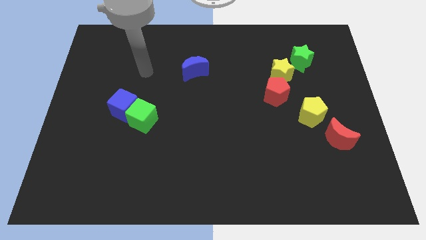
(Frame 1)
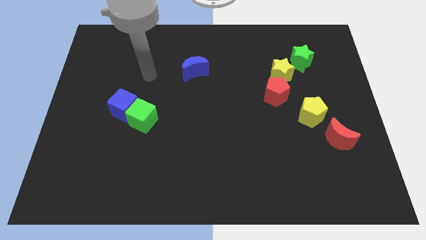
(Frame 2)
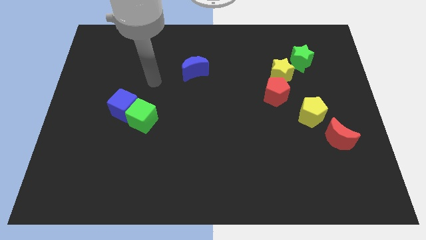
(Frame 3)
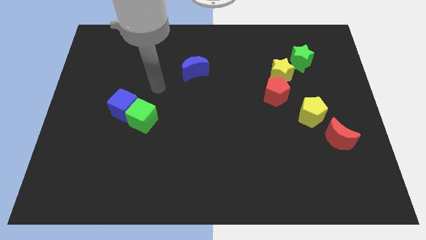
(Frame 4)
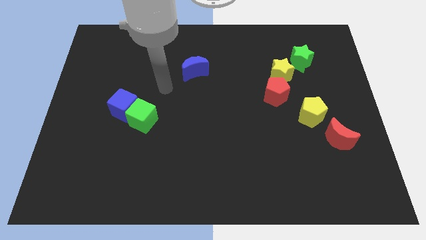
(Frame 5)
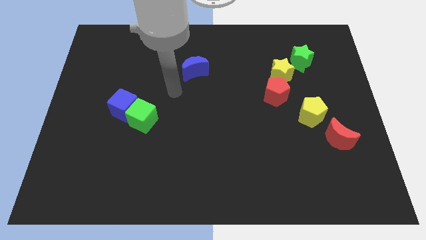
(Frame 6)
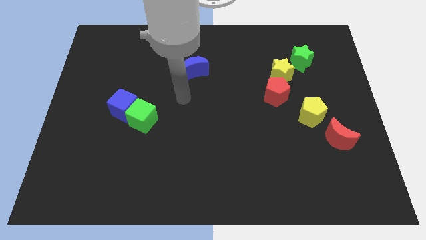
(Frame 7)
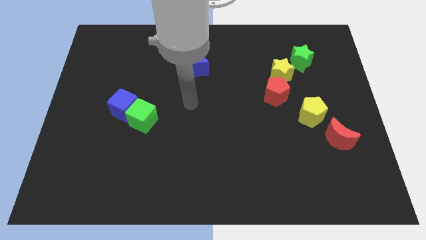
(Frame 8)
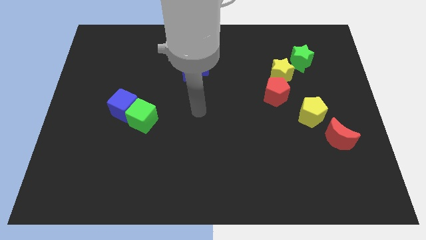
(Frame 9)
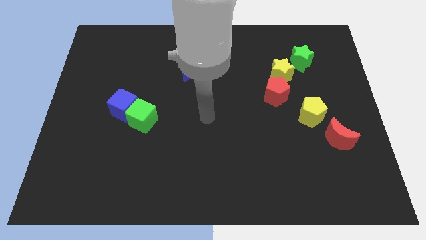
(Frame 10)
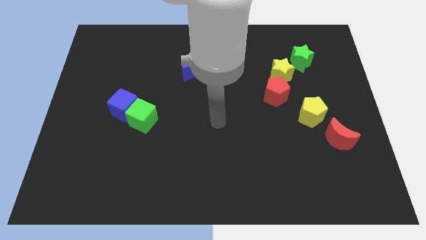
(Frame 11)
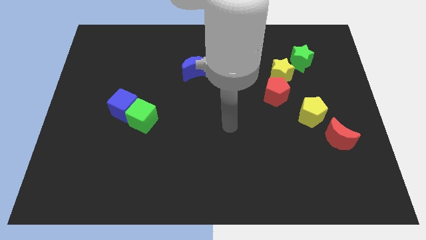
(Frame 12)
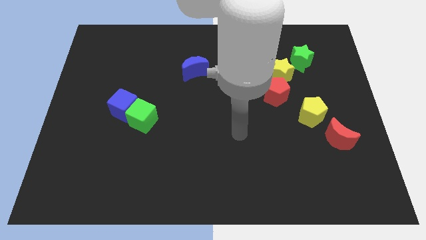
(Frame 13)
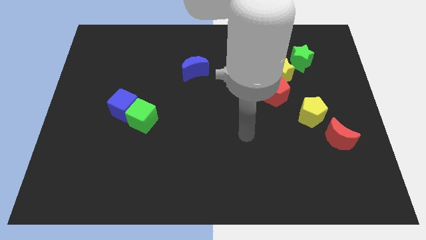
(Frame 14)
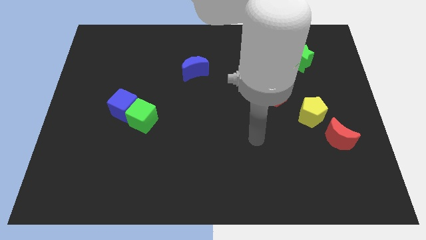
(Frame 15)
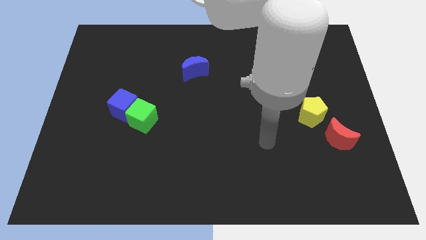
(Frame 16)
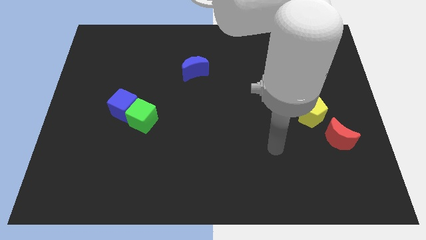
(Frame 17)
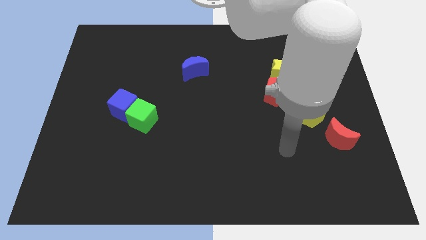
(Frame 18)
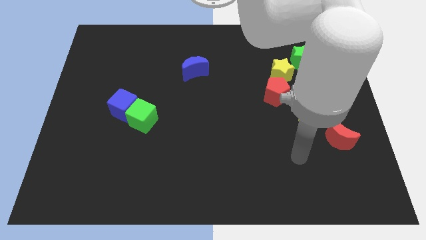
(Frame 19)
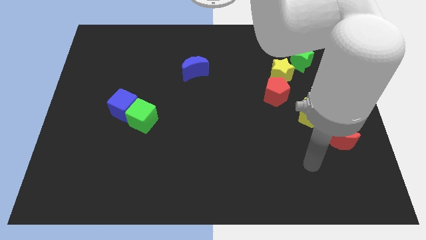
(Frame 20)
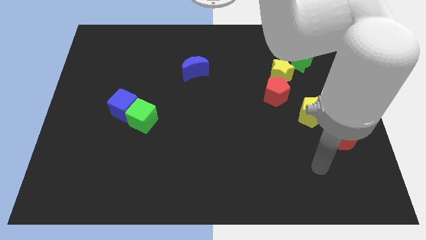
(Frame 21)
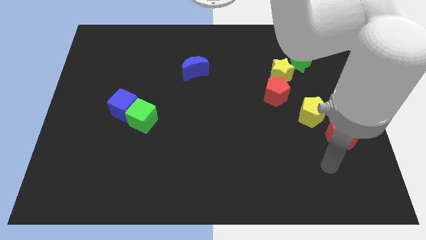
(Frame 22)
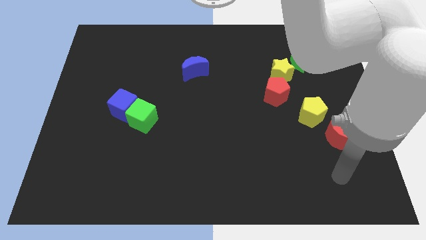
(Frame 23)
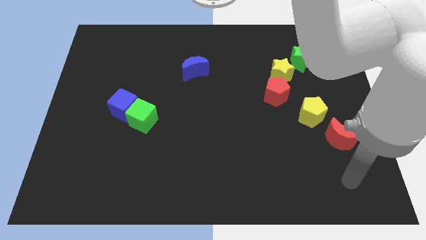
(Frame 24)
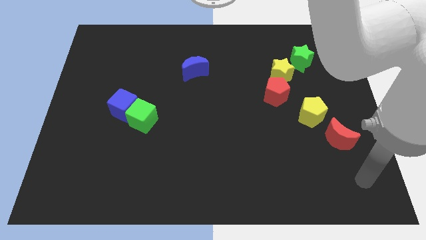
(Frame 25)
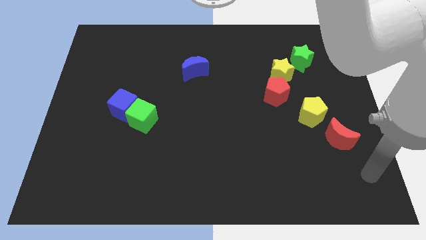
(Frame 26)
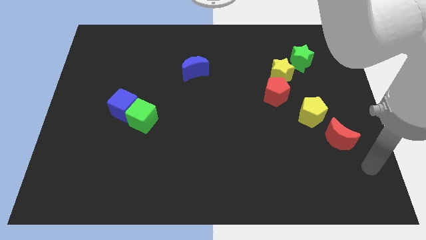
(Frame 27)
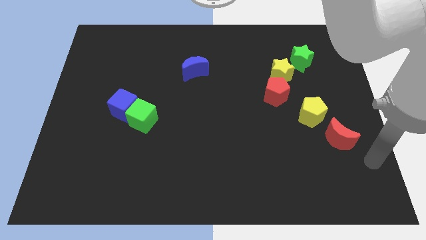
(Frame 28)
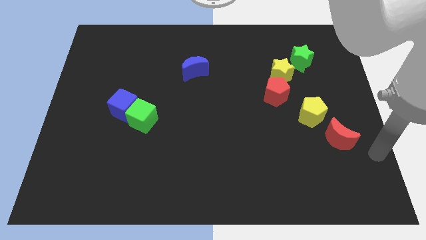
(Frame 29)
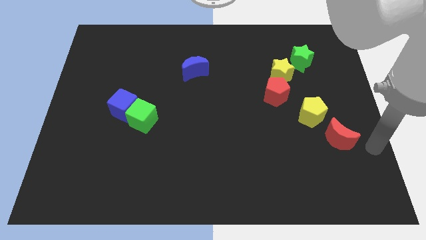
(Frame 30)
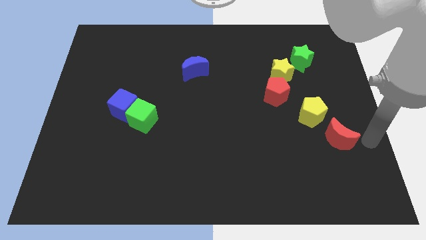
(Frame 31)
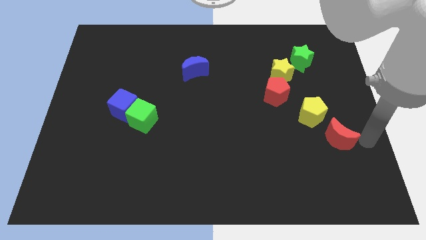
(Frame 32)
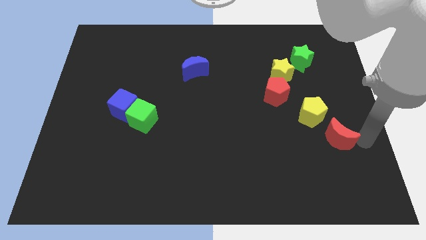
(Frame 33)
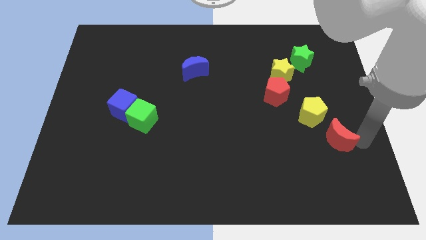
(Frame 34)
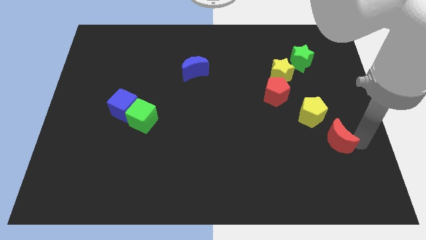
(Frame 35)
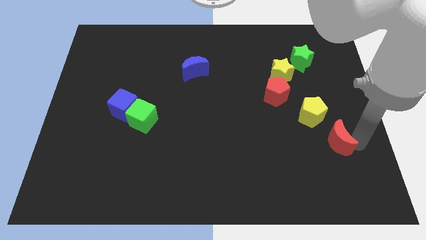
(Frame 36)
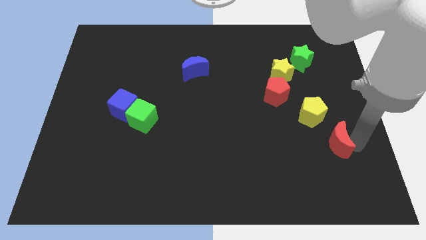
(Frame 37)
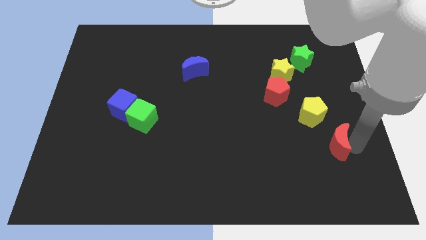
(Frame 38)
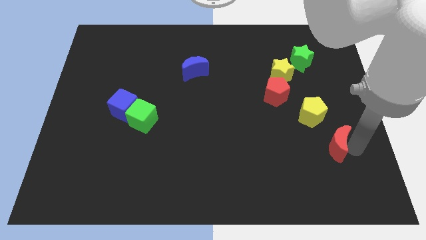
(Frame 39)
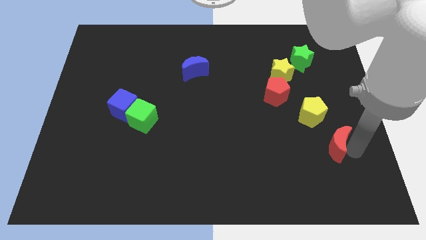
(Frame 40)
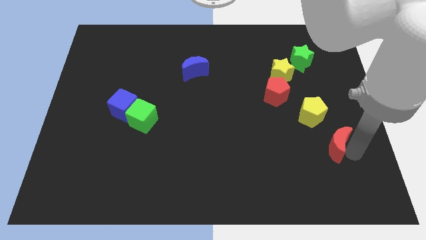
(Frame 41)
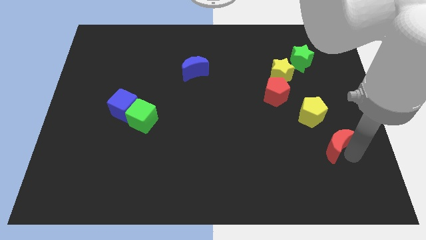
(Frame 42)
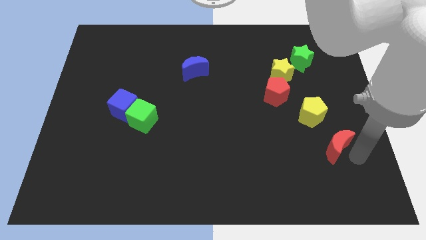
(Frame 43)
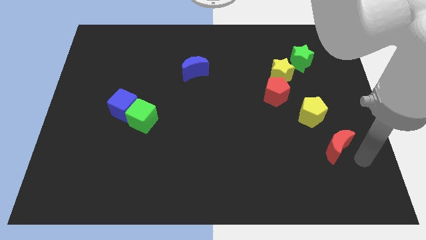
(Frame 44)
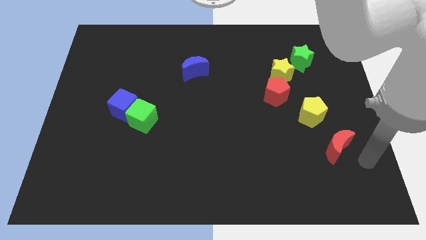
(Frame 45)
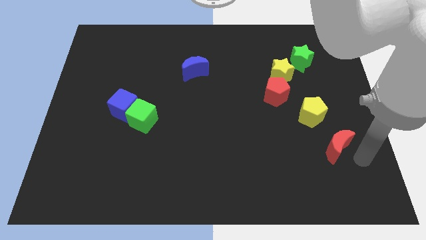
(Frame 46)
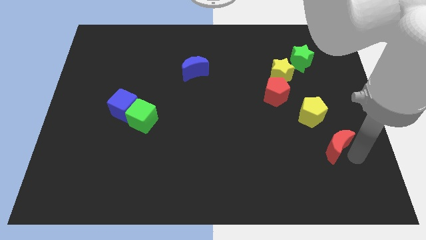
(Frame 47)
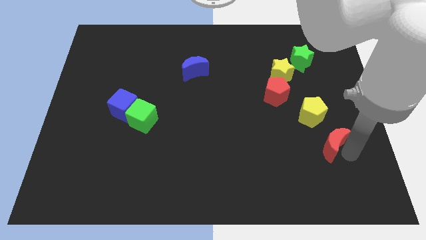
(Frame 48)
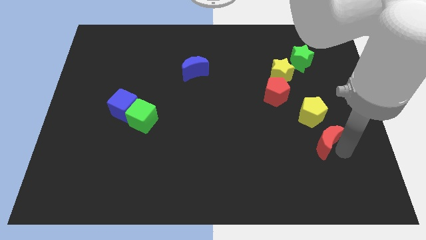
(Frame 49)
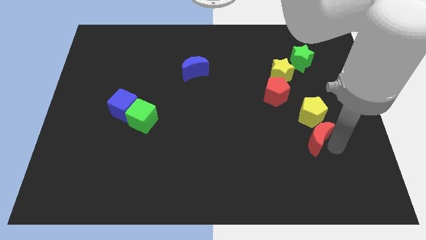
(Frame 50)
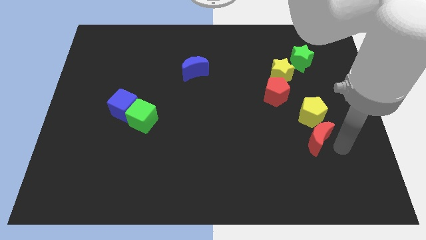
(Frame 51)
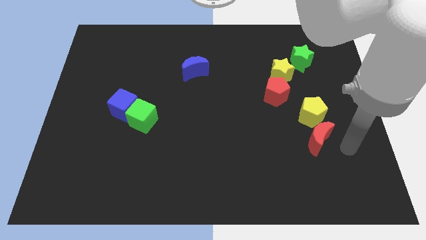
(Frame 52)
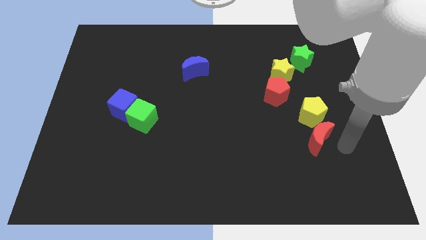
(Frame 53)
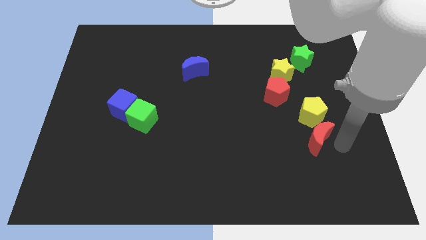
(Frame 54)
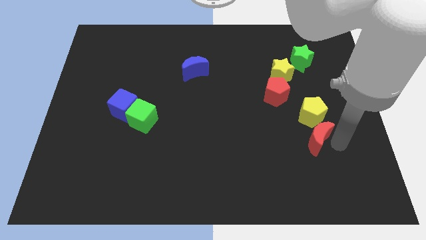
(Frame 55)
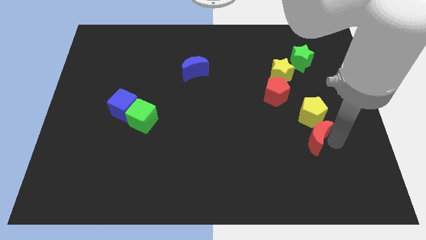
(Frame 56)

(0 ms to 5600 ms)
move the red moon diagonally down and to the left of the yellow pentagon

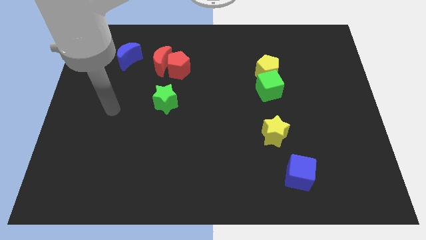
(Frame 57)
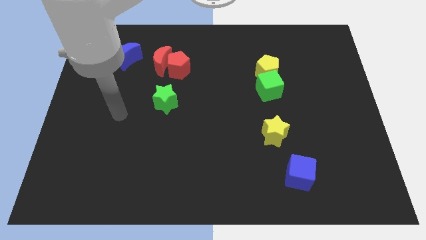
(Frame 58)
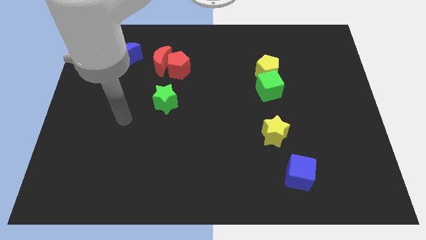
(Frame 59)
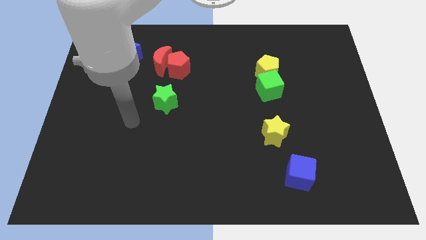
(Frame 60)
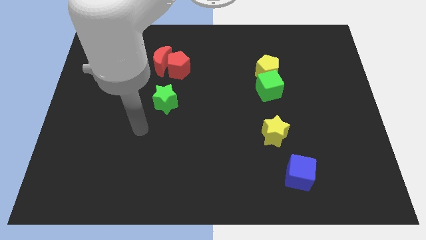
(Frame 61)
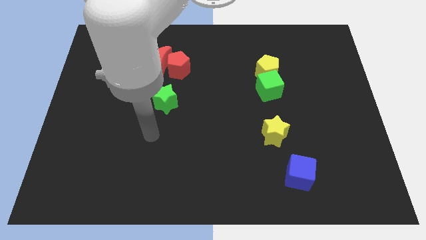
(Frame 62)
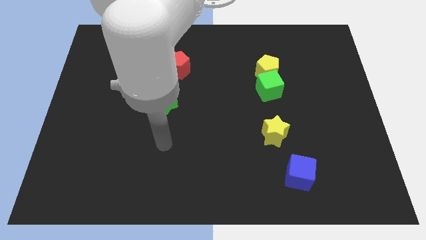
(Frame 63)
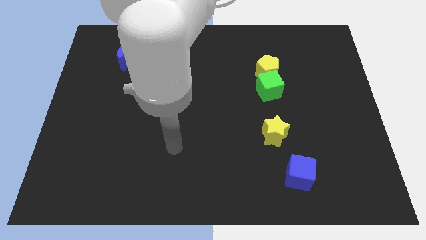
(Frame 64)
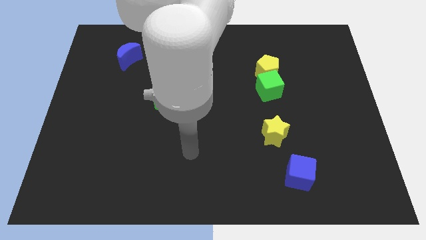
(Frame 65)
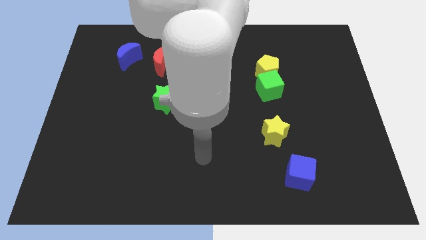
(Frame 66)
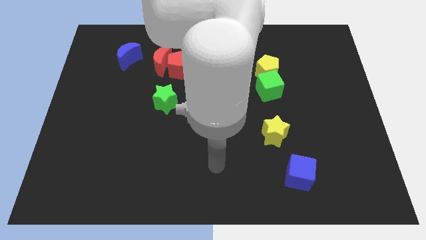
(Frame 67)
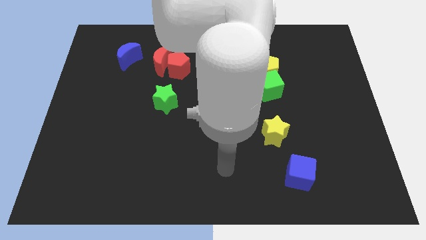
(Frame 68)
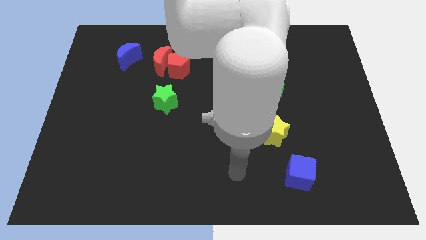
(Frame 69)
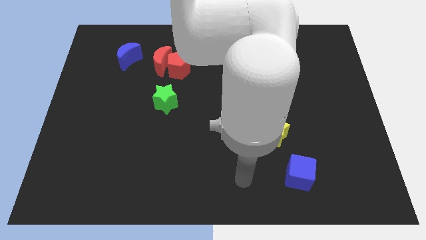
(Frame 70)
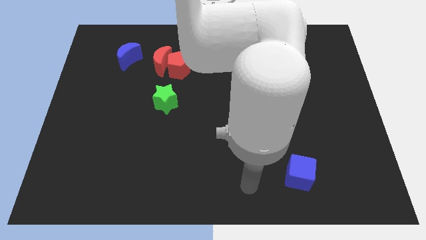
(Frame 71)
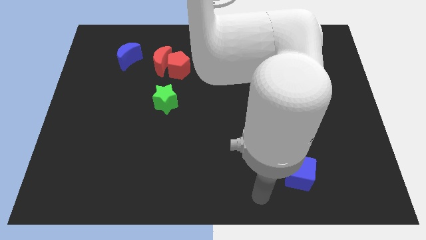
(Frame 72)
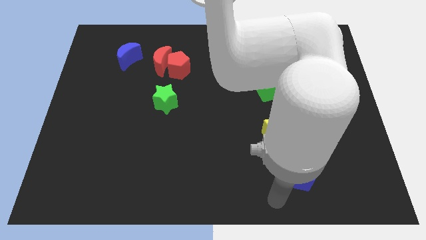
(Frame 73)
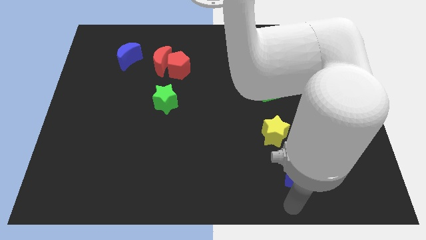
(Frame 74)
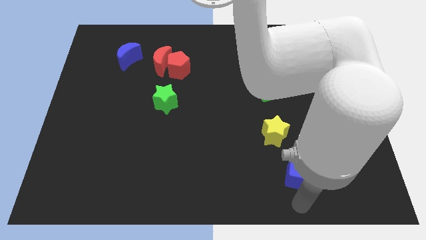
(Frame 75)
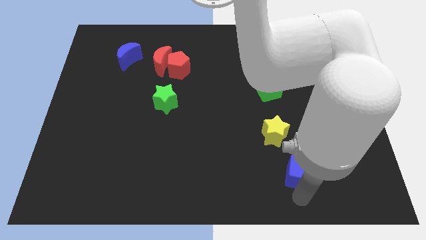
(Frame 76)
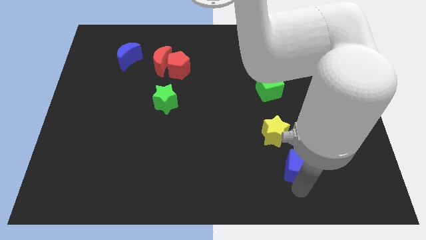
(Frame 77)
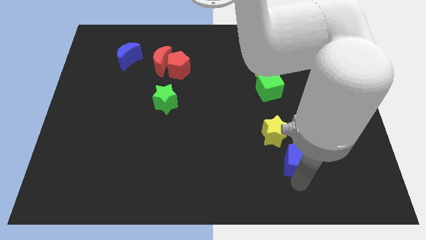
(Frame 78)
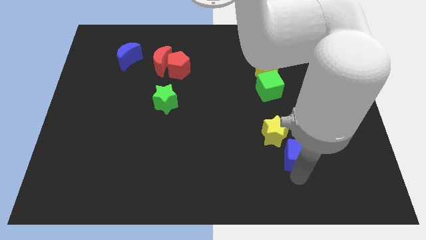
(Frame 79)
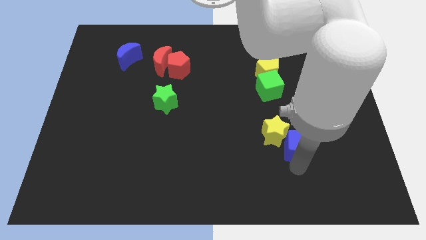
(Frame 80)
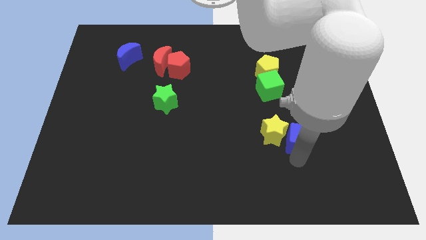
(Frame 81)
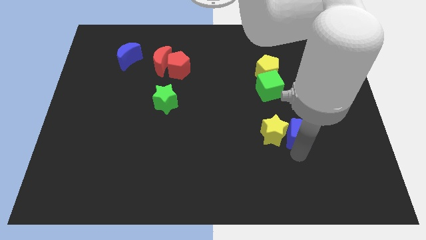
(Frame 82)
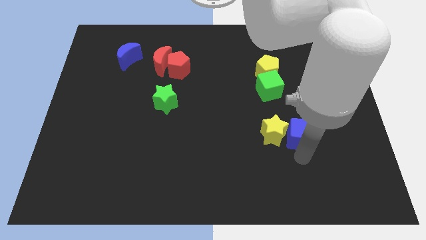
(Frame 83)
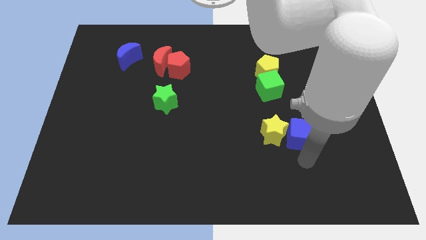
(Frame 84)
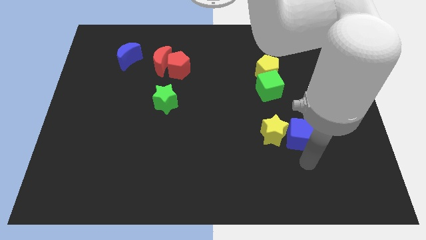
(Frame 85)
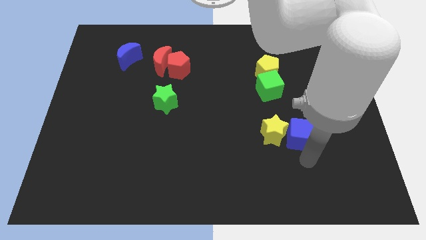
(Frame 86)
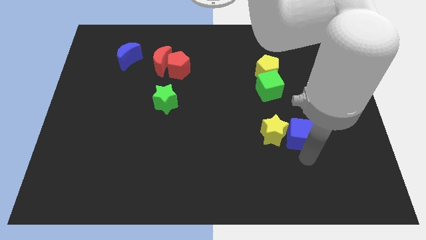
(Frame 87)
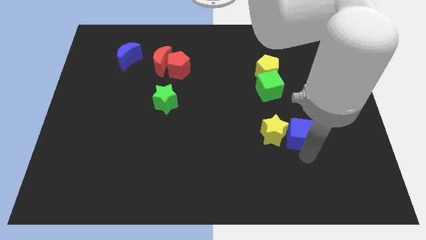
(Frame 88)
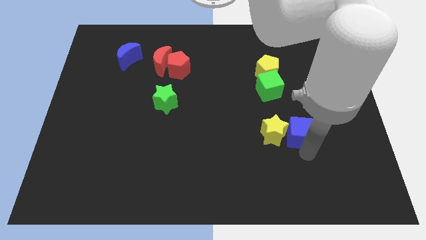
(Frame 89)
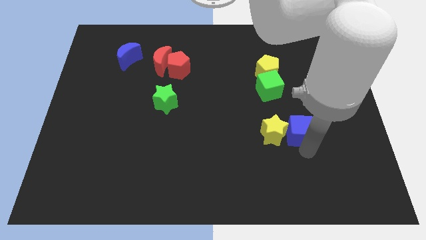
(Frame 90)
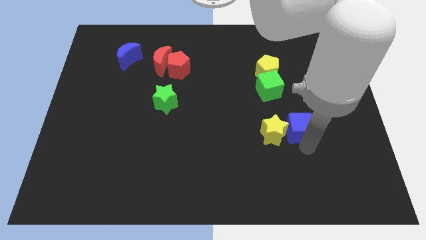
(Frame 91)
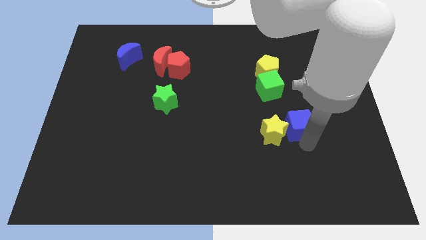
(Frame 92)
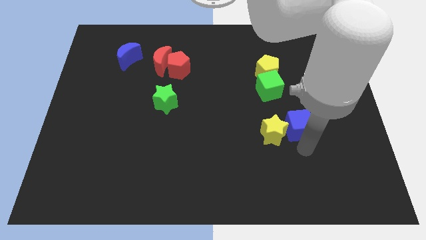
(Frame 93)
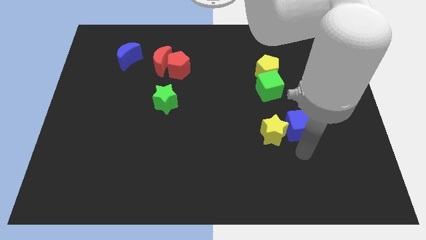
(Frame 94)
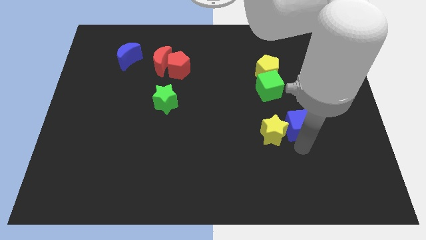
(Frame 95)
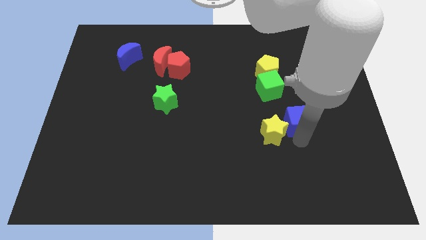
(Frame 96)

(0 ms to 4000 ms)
move the blue cube diagonally down and to the right of the green cube
